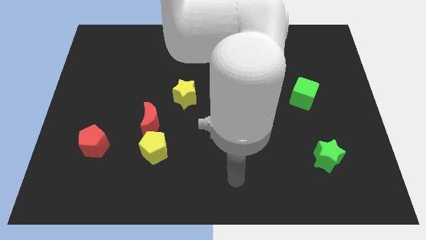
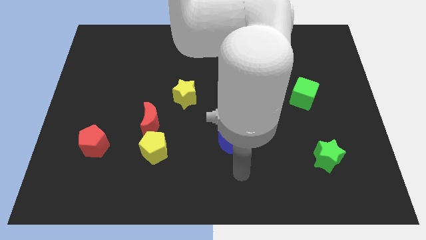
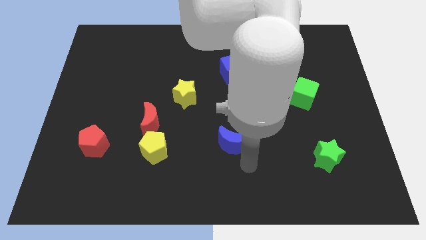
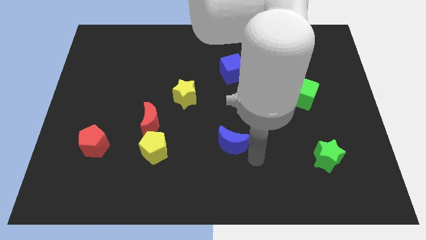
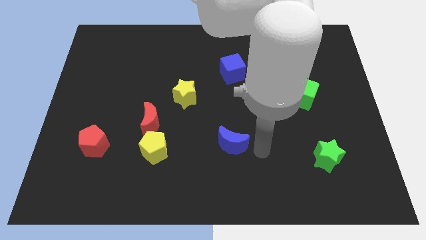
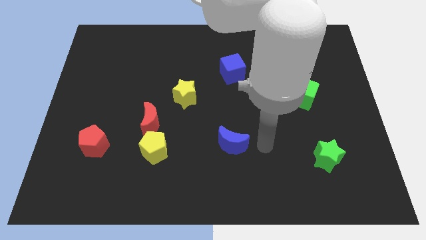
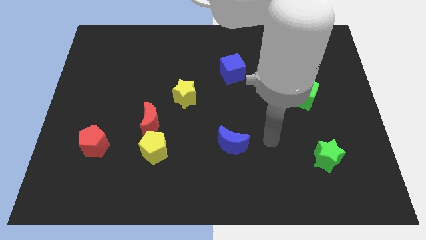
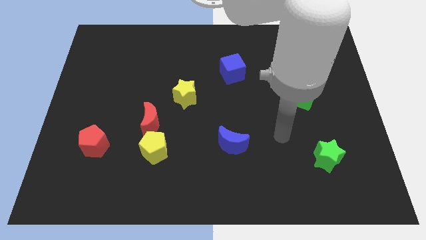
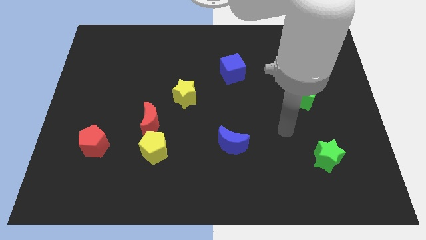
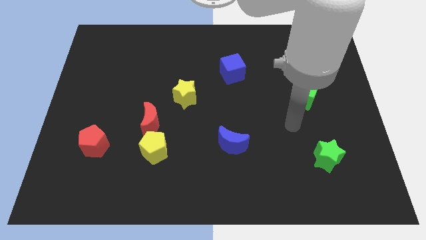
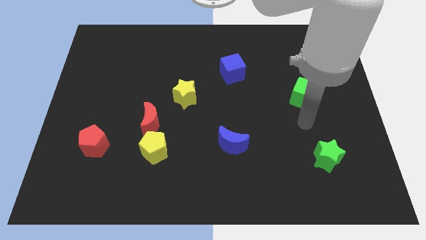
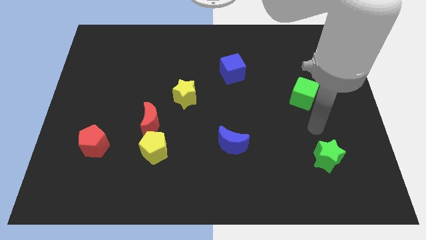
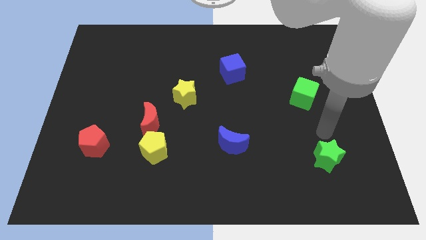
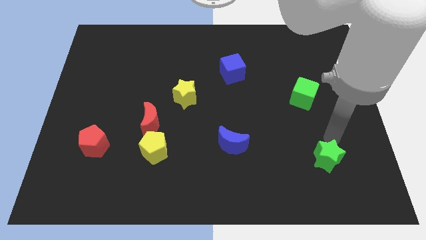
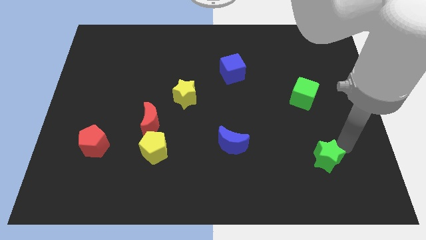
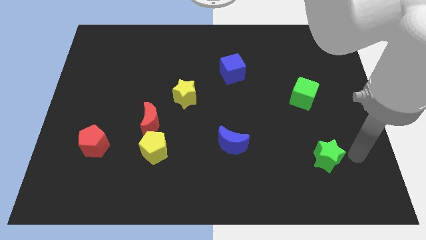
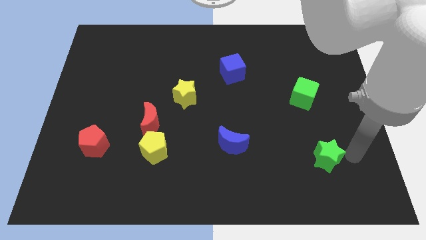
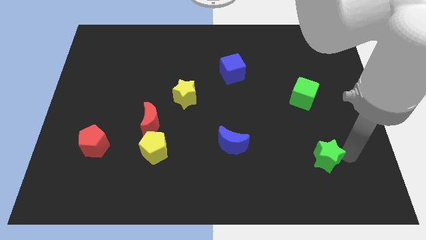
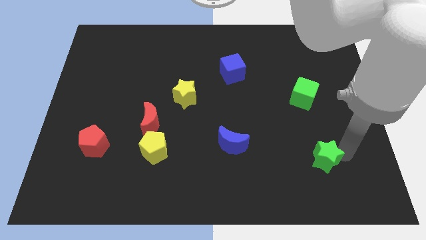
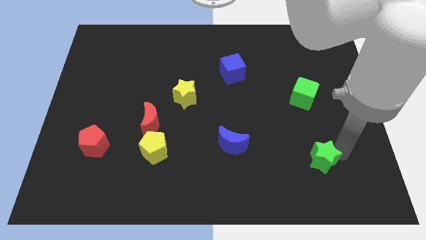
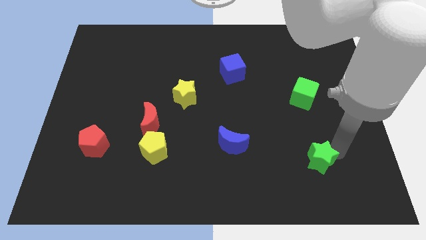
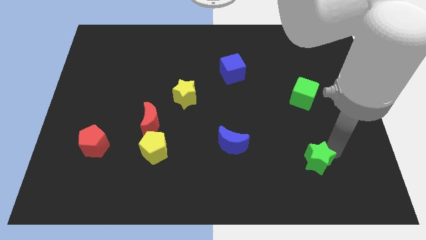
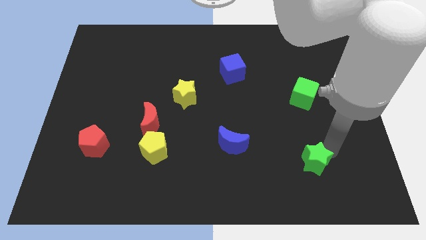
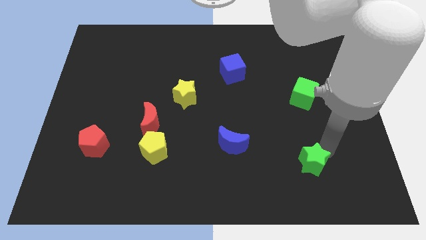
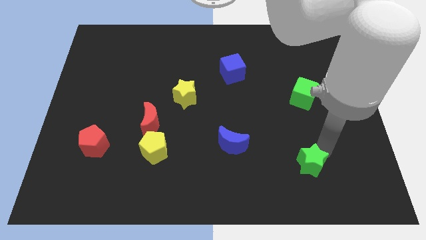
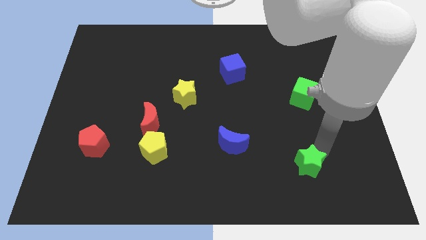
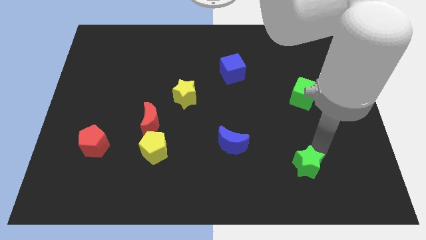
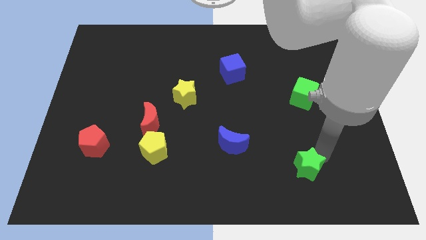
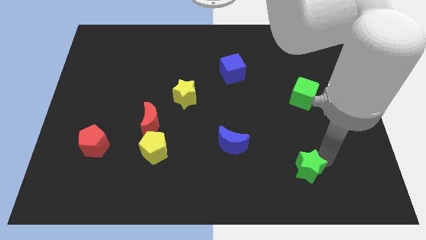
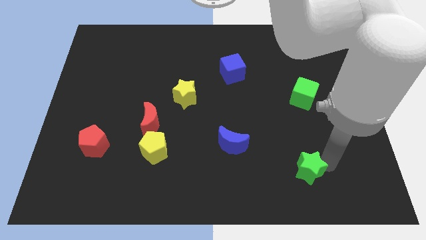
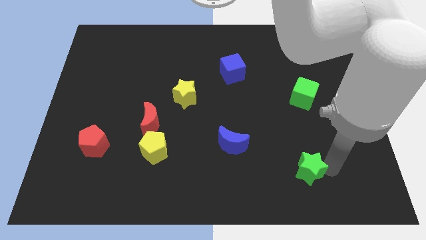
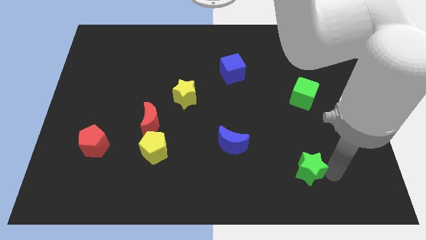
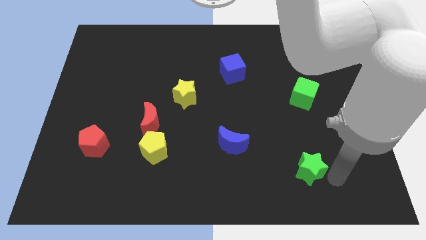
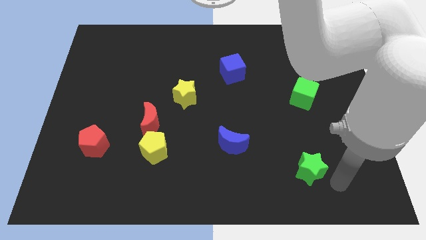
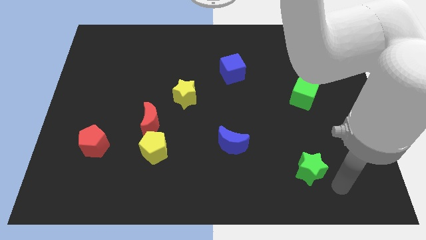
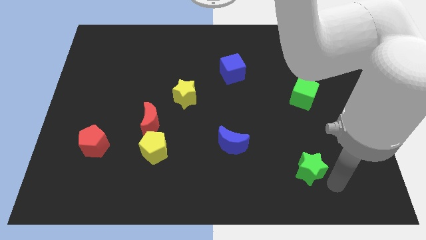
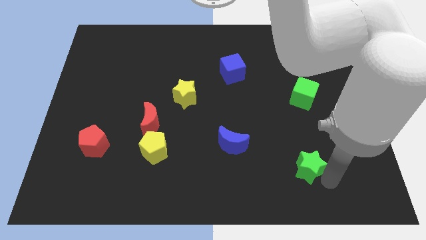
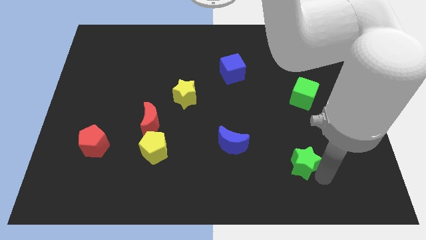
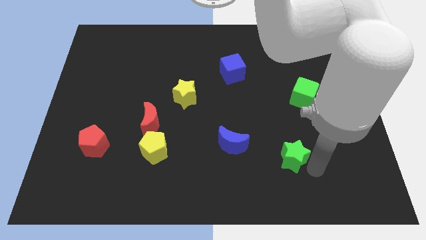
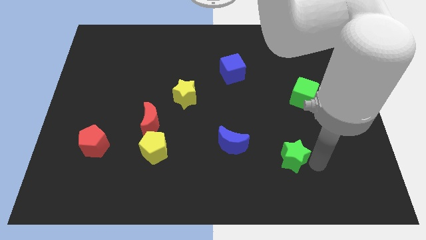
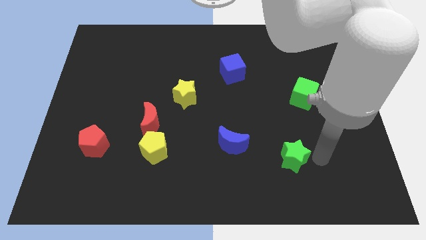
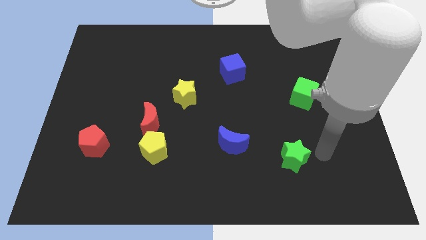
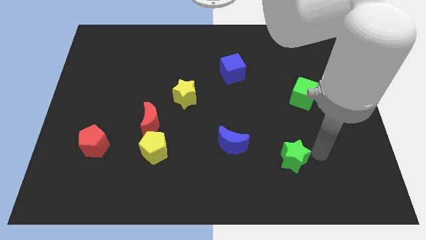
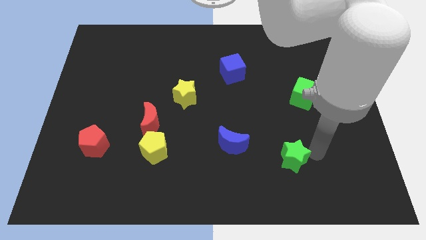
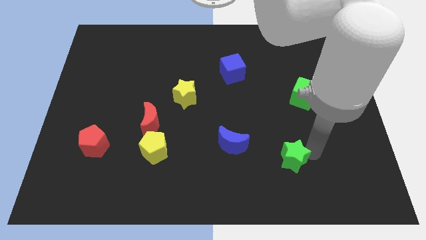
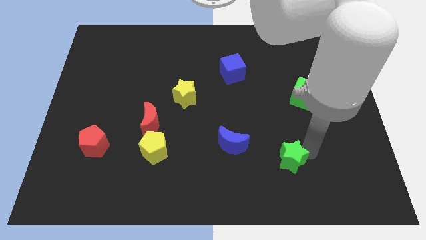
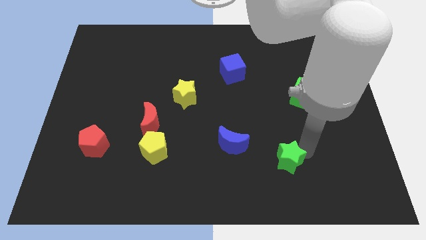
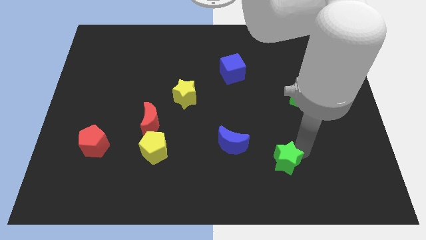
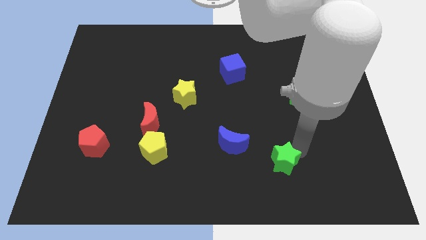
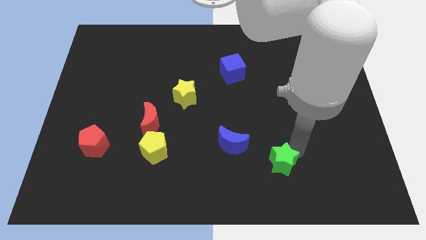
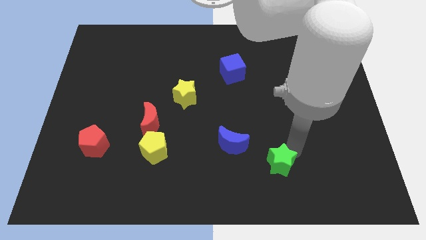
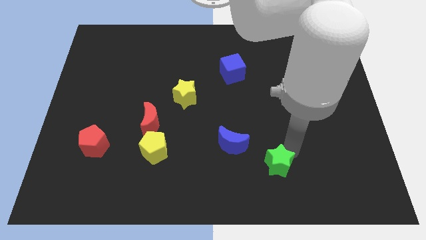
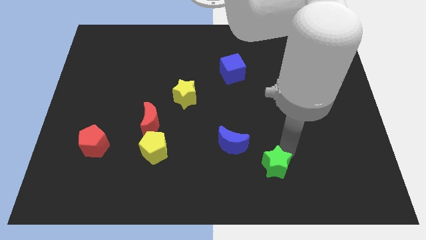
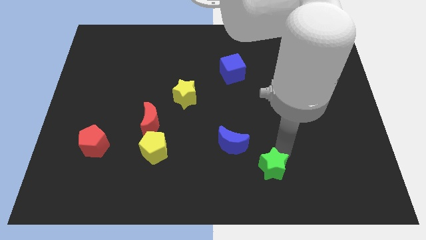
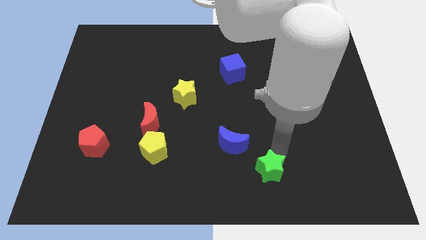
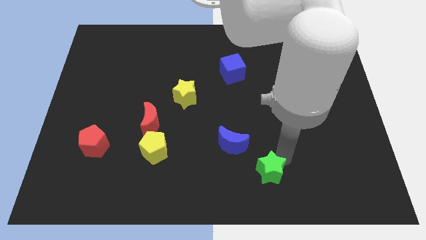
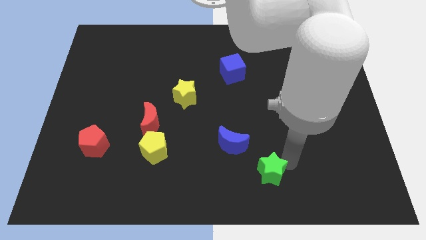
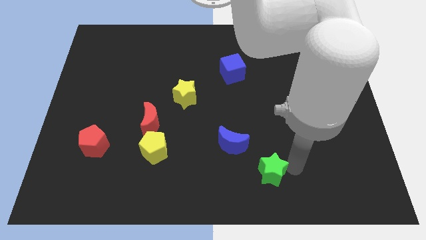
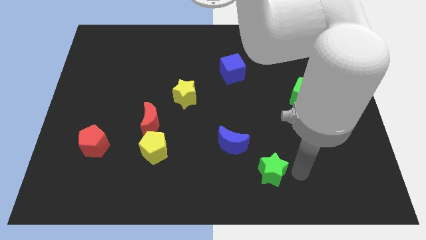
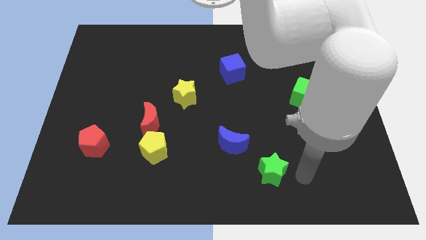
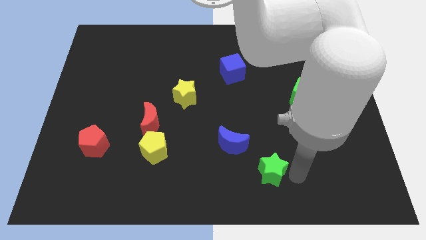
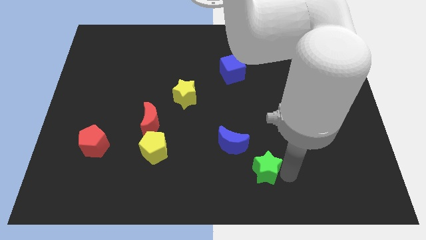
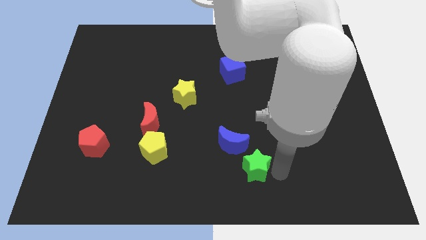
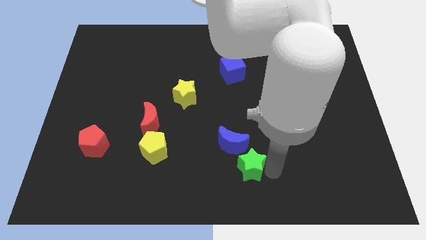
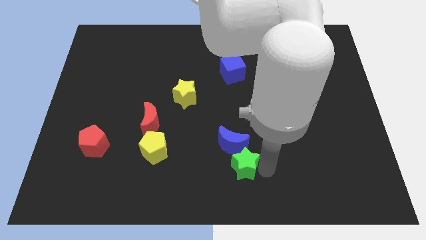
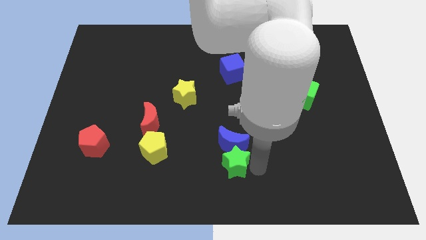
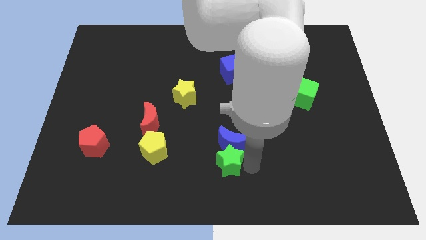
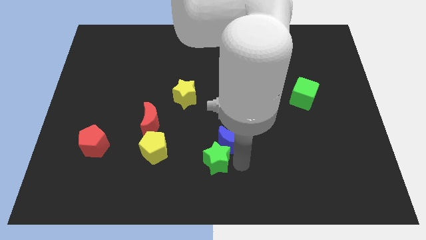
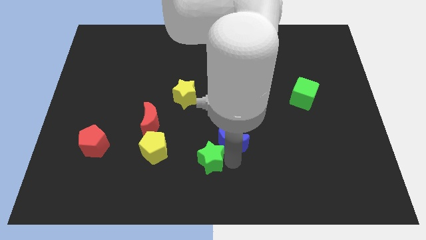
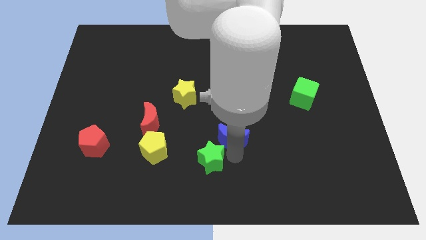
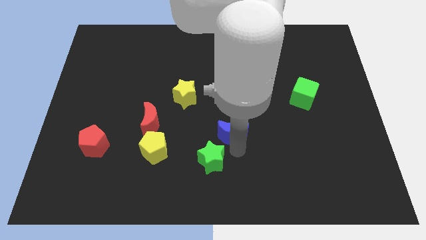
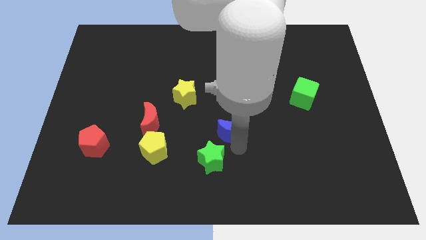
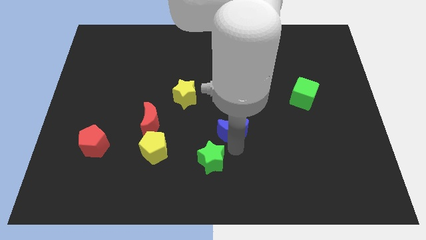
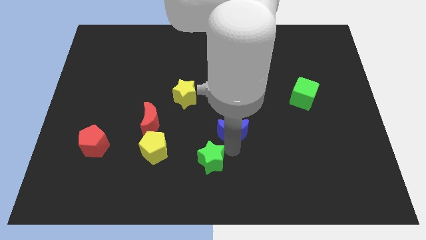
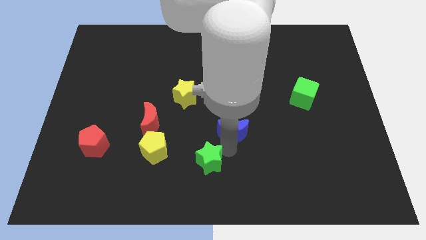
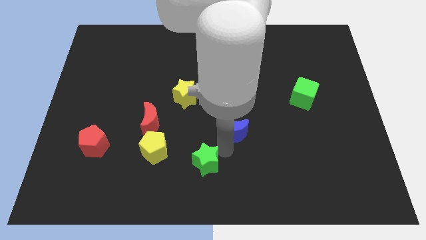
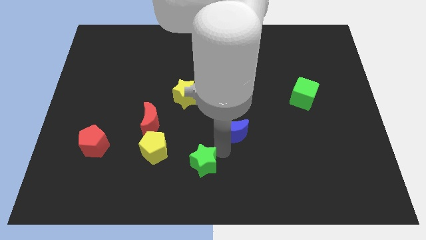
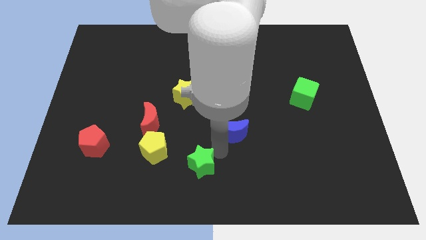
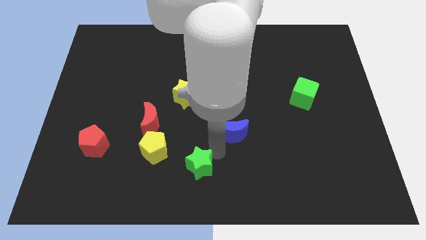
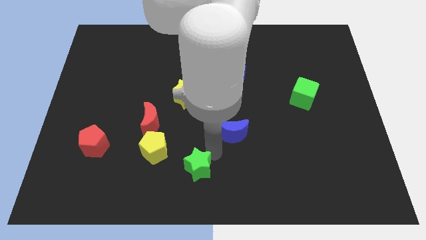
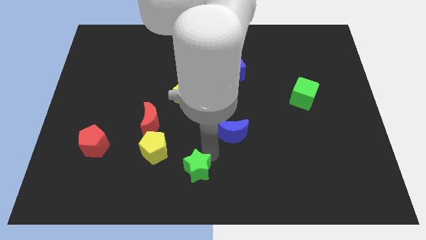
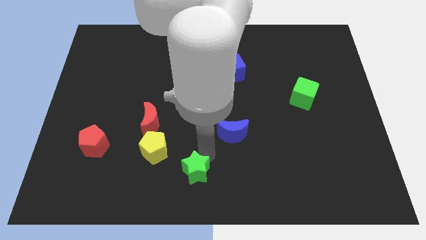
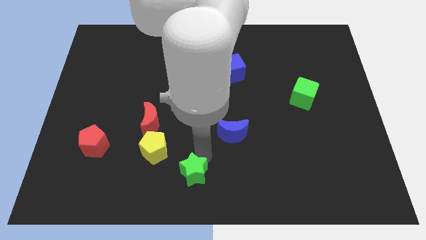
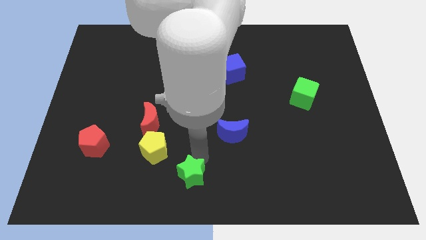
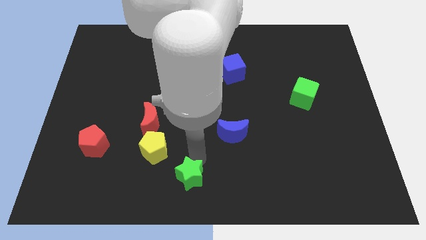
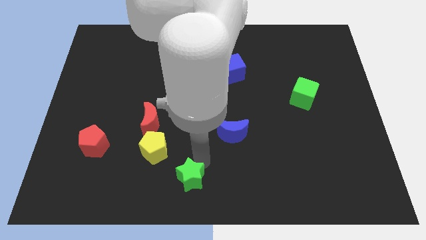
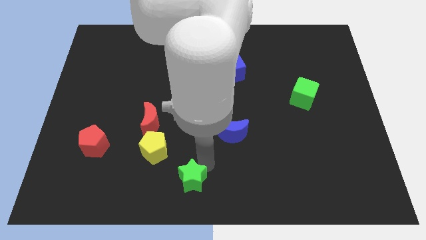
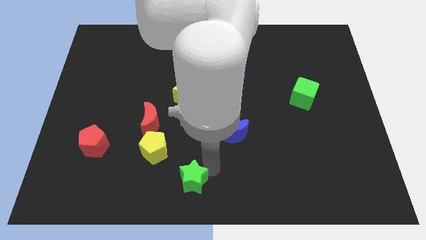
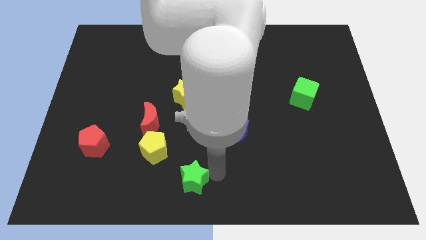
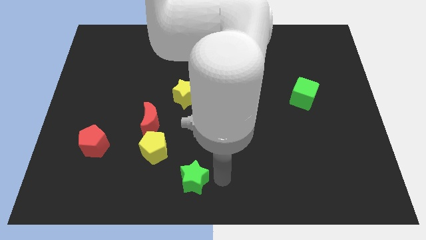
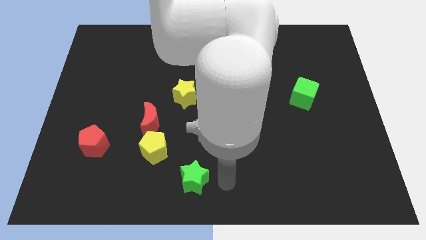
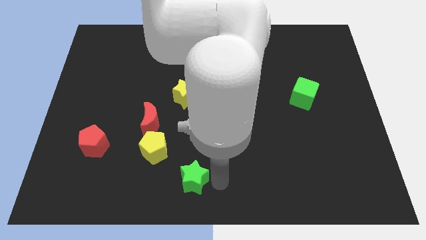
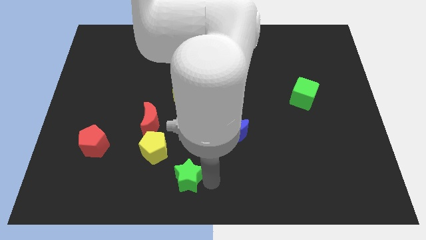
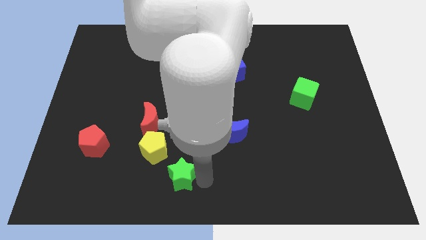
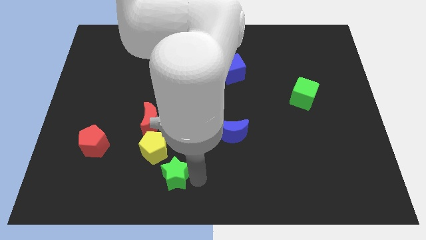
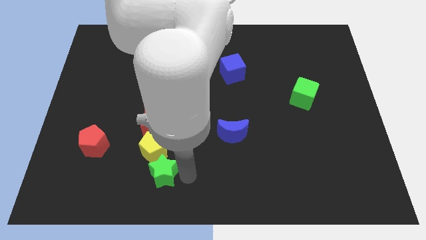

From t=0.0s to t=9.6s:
put the green star to the bottom of the red moon
